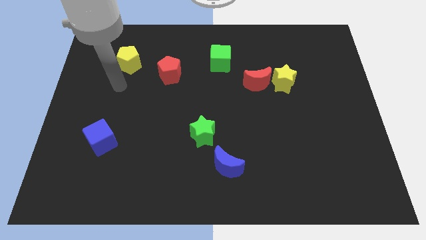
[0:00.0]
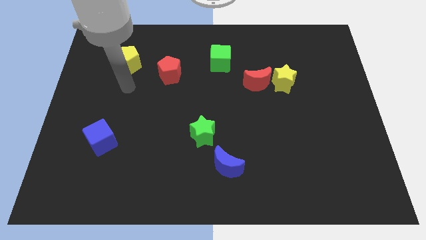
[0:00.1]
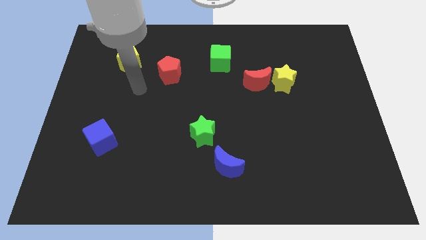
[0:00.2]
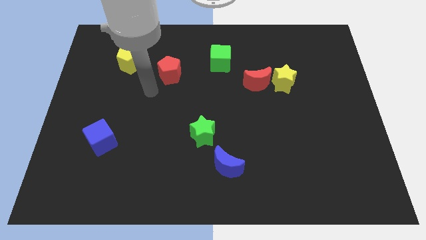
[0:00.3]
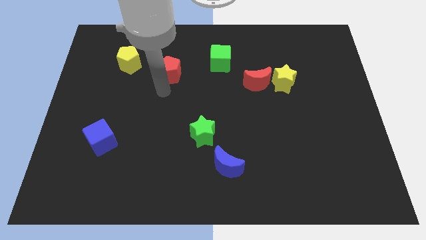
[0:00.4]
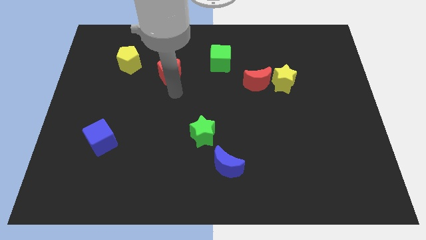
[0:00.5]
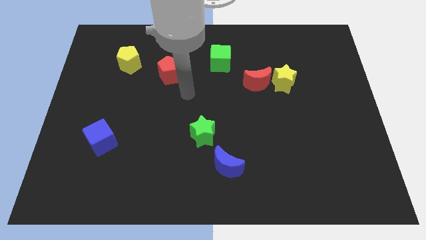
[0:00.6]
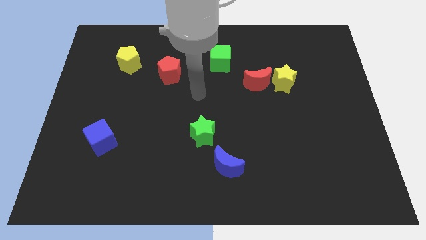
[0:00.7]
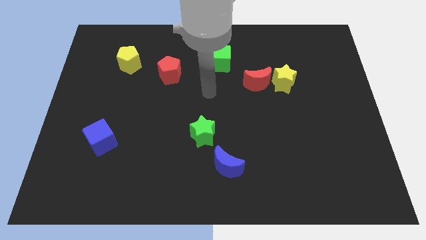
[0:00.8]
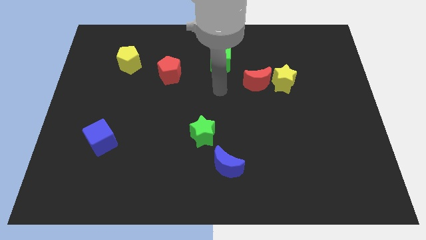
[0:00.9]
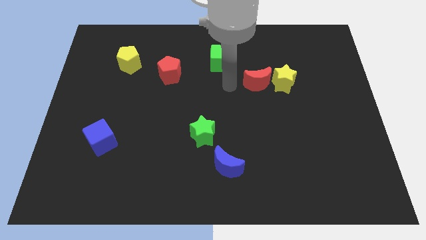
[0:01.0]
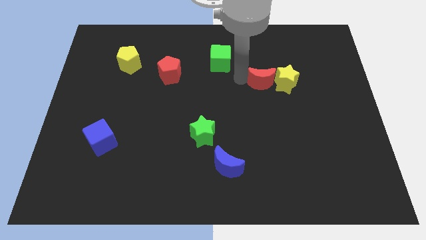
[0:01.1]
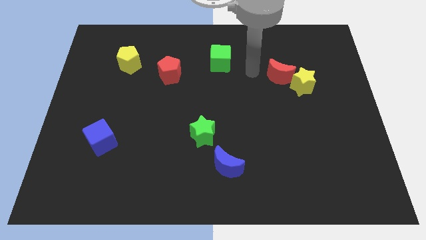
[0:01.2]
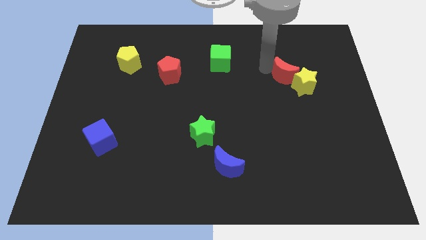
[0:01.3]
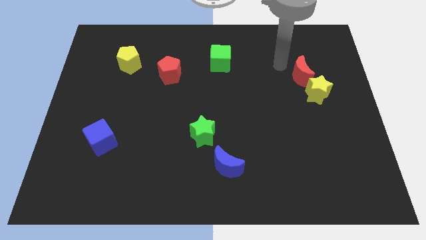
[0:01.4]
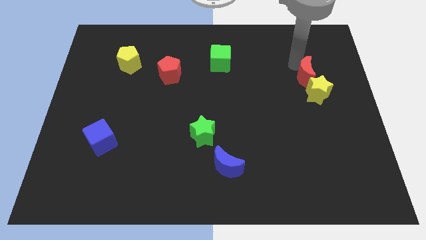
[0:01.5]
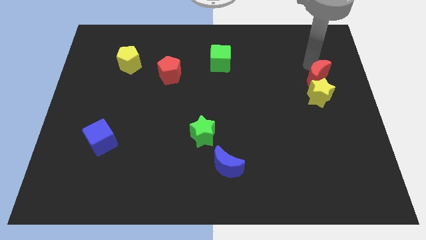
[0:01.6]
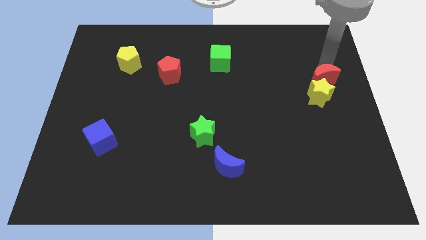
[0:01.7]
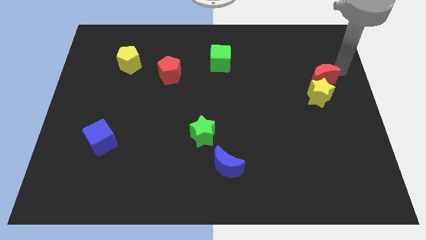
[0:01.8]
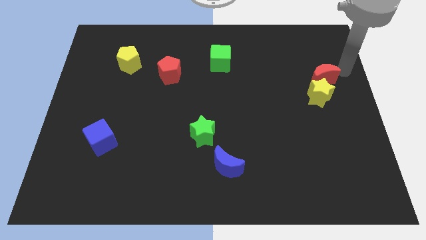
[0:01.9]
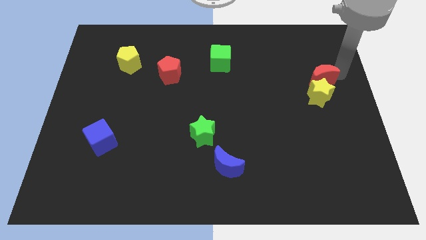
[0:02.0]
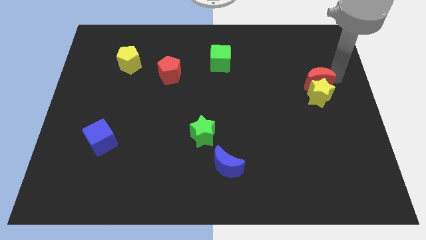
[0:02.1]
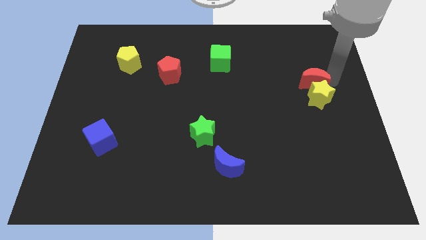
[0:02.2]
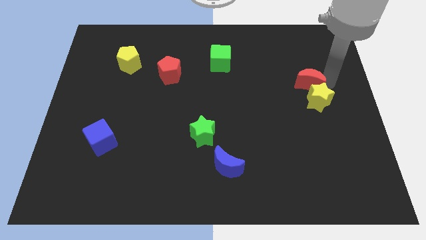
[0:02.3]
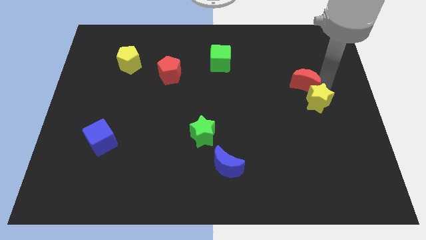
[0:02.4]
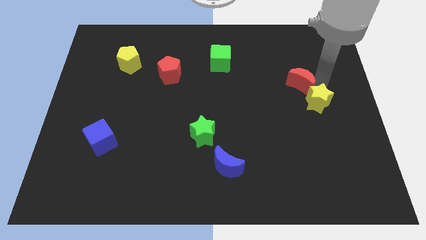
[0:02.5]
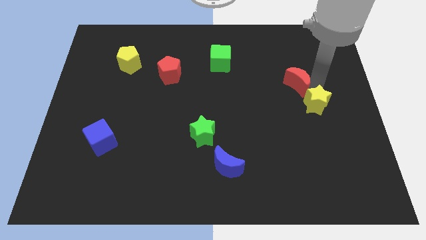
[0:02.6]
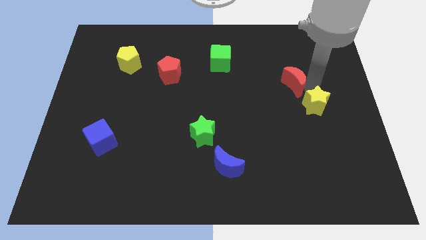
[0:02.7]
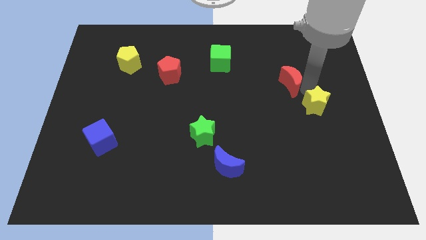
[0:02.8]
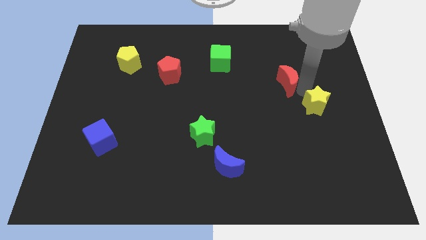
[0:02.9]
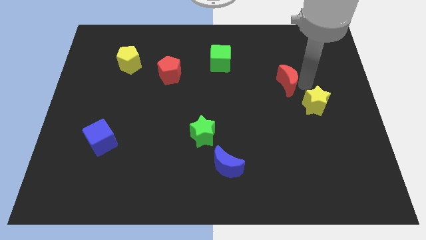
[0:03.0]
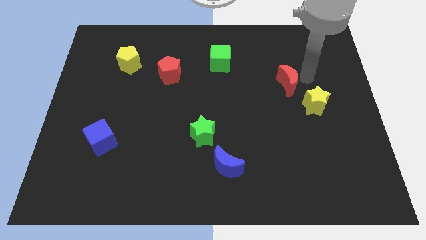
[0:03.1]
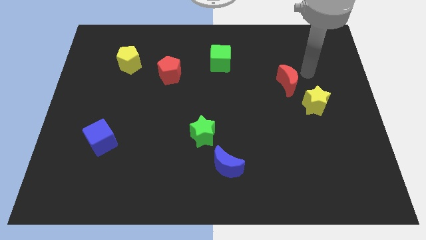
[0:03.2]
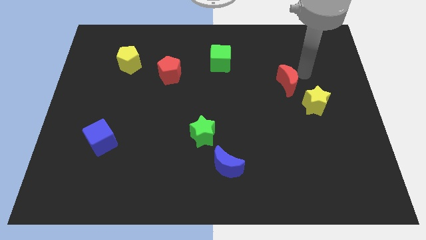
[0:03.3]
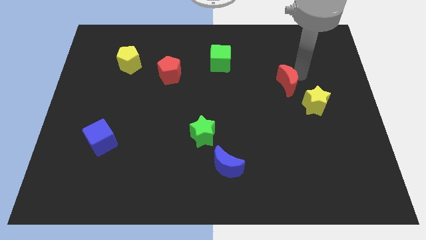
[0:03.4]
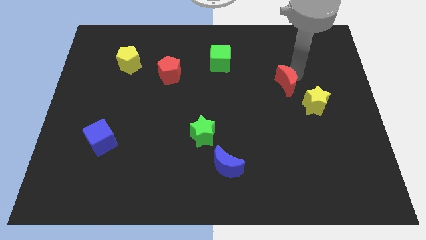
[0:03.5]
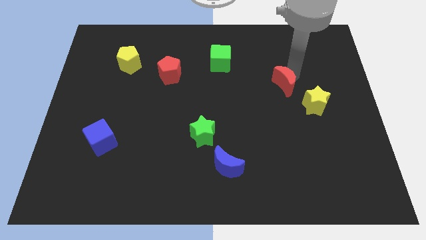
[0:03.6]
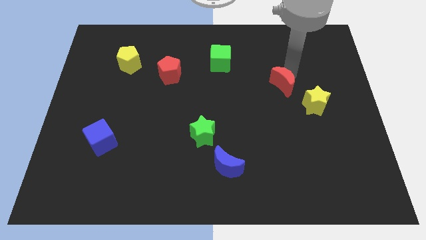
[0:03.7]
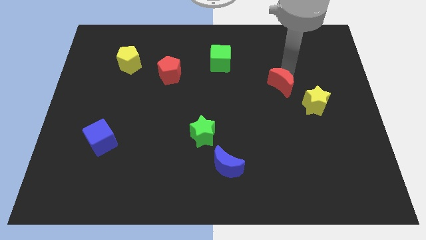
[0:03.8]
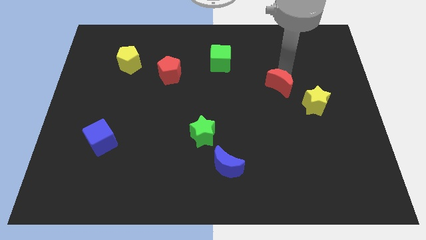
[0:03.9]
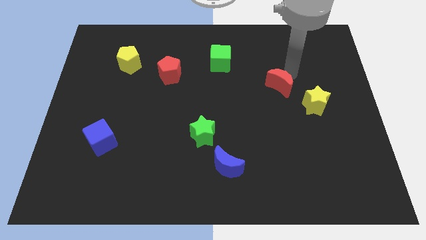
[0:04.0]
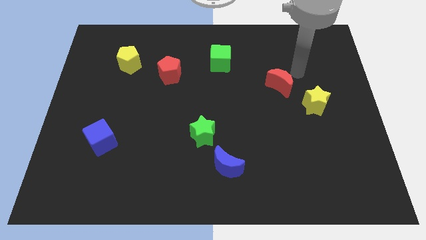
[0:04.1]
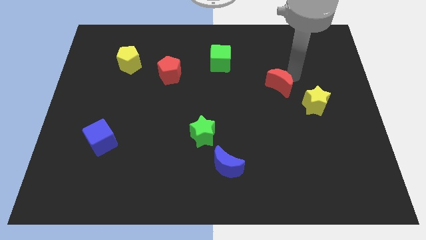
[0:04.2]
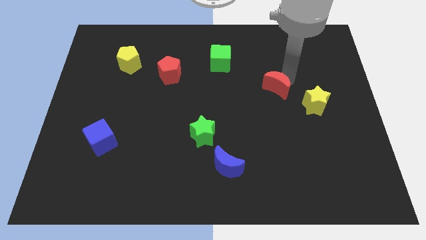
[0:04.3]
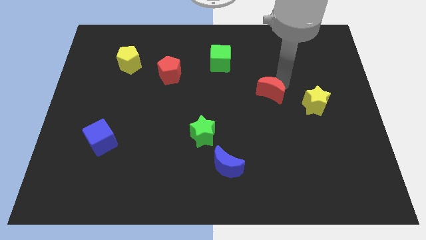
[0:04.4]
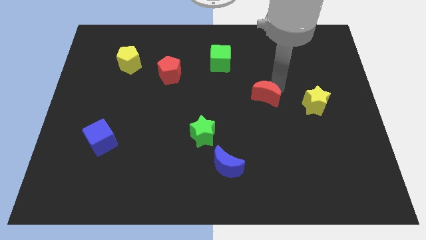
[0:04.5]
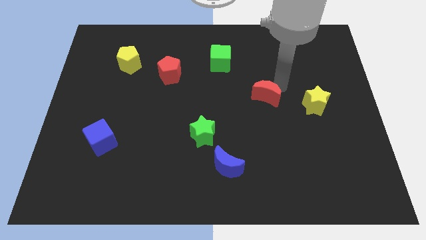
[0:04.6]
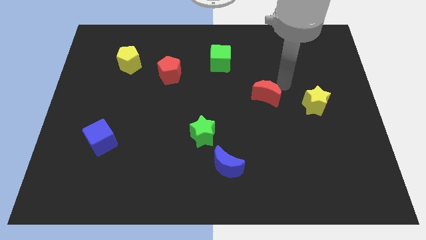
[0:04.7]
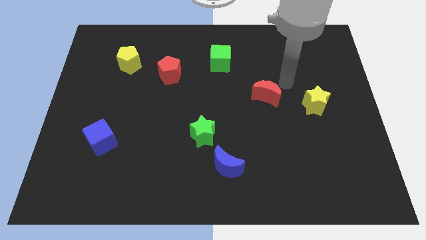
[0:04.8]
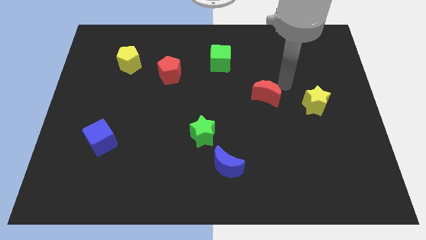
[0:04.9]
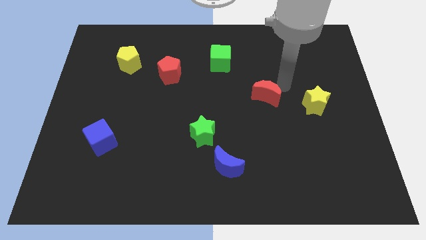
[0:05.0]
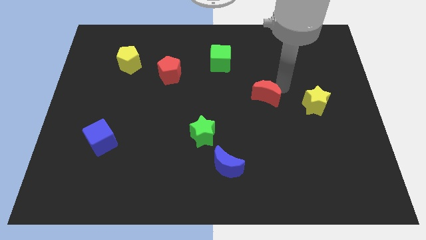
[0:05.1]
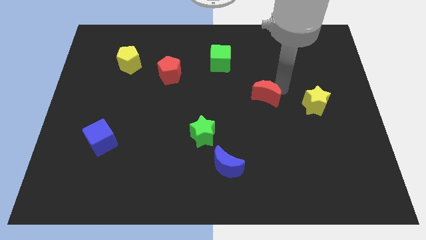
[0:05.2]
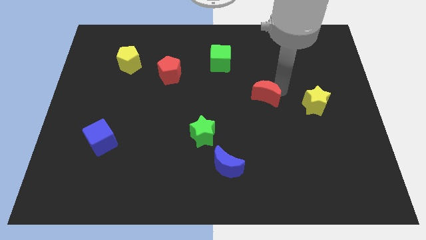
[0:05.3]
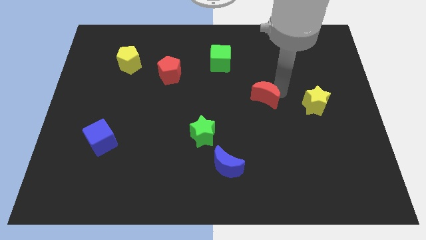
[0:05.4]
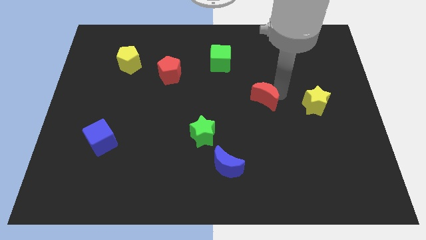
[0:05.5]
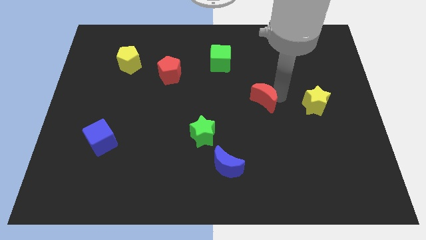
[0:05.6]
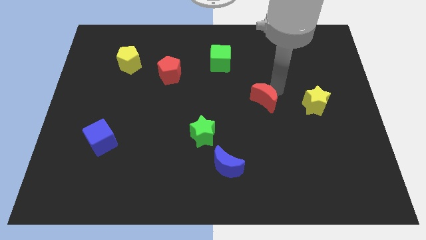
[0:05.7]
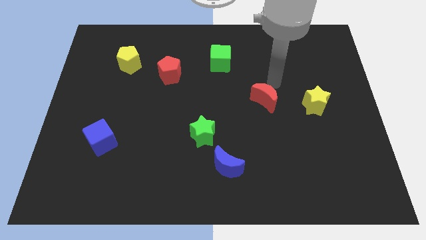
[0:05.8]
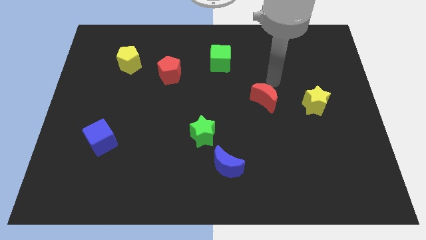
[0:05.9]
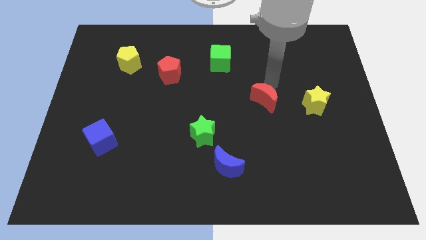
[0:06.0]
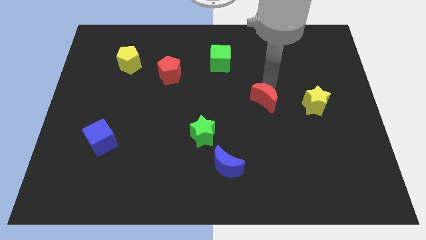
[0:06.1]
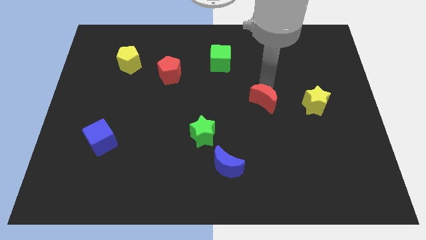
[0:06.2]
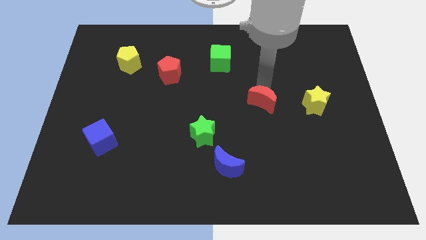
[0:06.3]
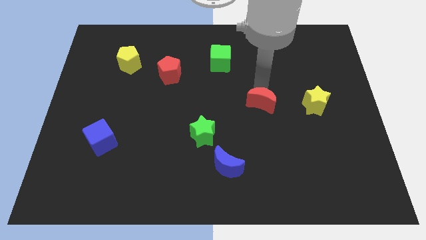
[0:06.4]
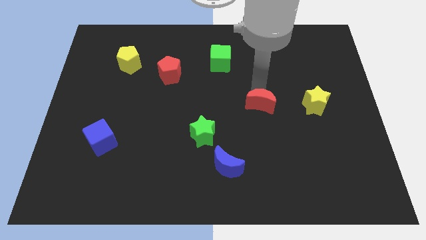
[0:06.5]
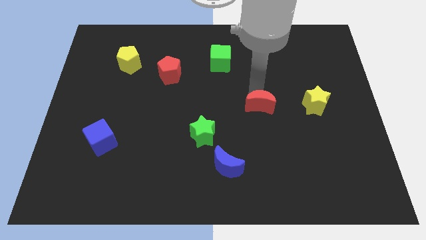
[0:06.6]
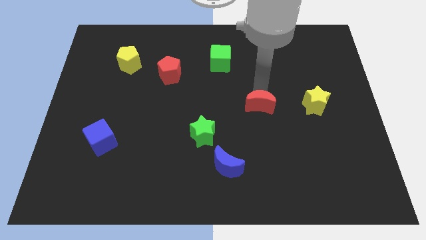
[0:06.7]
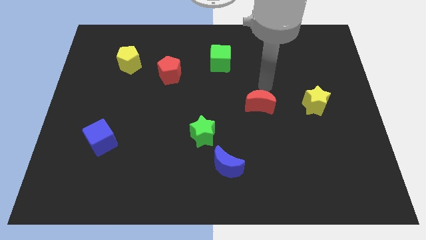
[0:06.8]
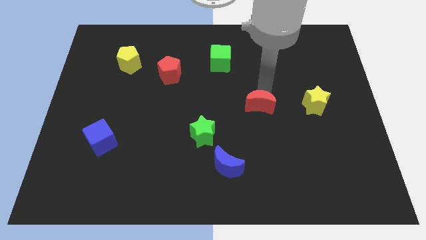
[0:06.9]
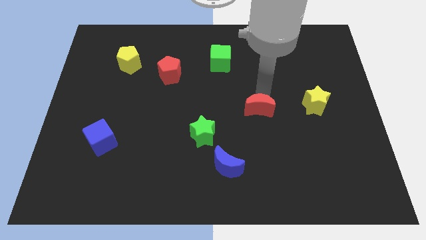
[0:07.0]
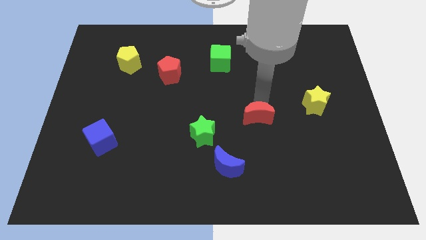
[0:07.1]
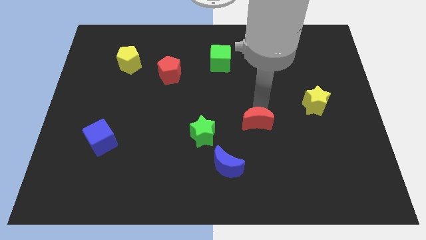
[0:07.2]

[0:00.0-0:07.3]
put the red moon just right of the green star
